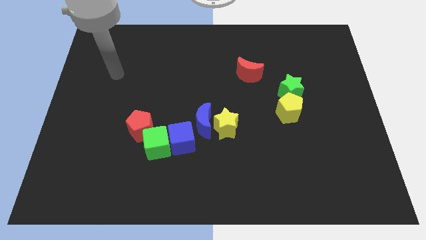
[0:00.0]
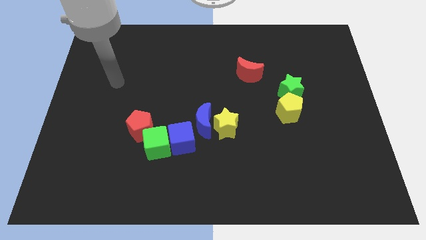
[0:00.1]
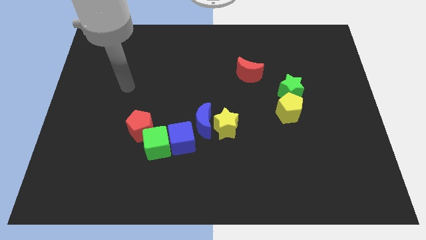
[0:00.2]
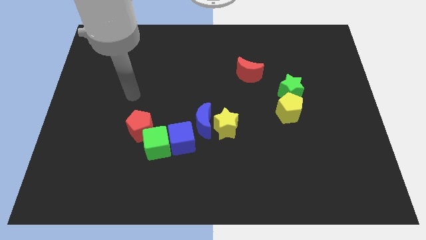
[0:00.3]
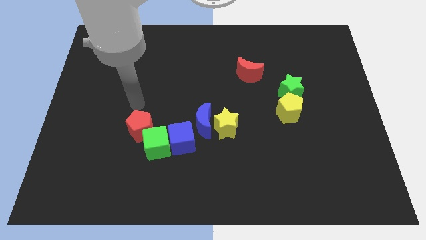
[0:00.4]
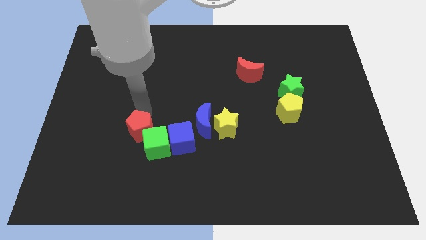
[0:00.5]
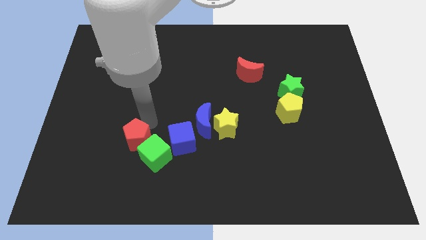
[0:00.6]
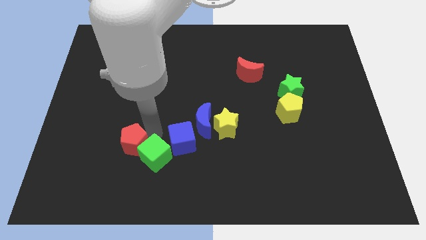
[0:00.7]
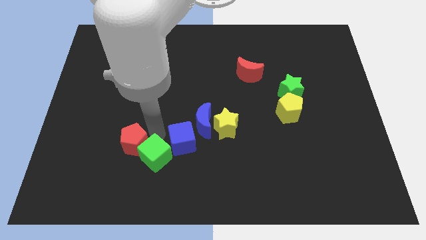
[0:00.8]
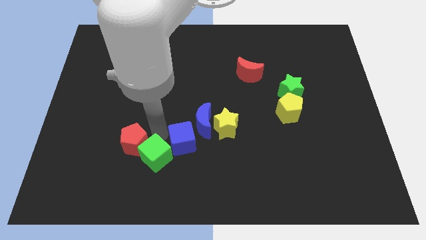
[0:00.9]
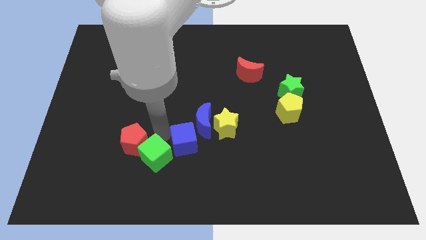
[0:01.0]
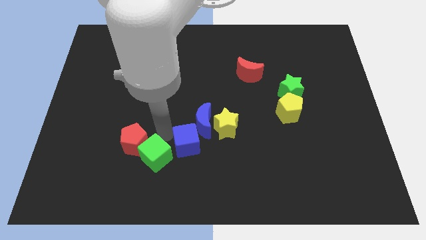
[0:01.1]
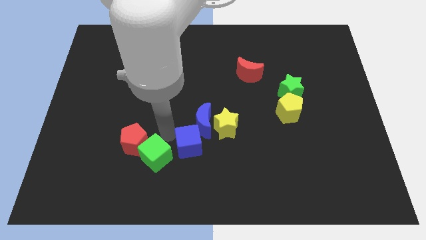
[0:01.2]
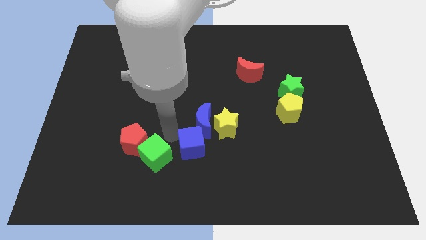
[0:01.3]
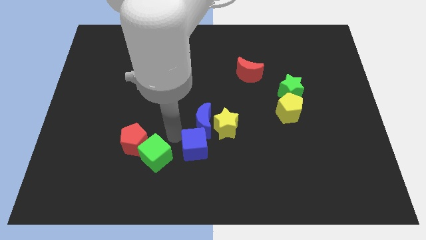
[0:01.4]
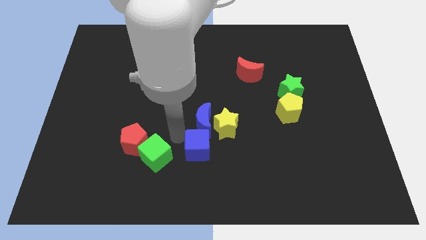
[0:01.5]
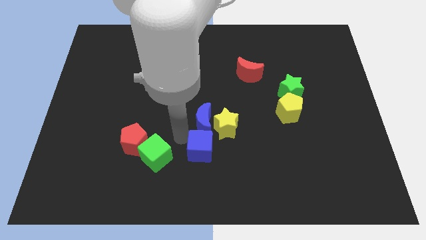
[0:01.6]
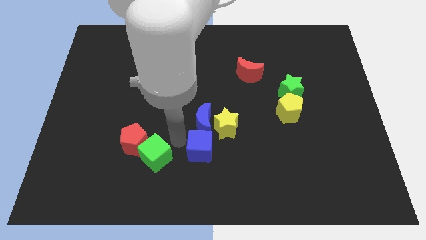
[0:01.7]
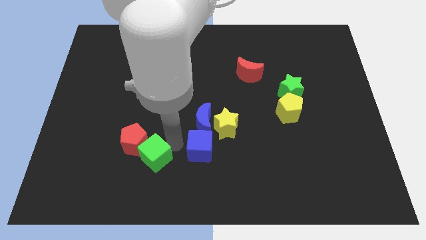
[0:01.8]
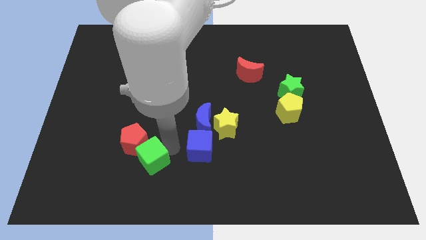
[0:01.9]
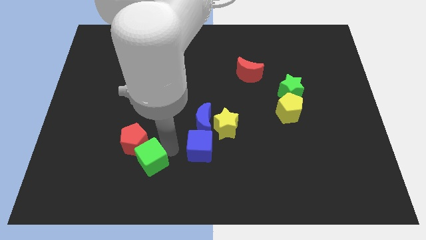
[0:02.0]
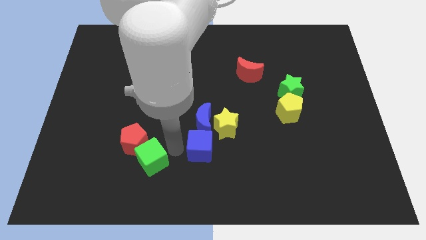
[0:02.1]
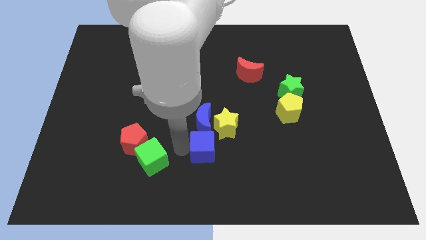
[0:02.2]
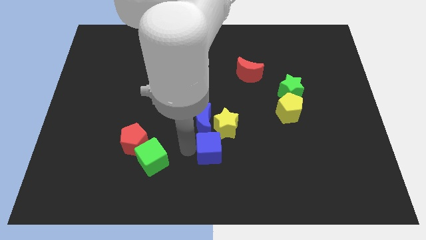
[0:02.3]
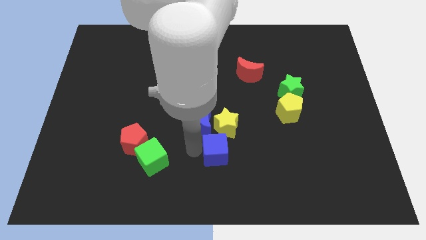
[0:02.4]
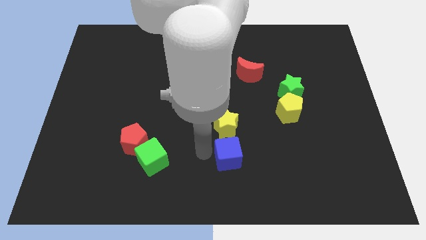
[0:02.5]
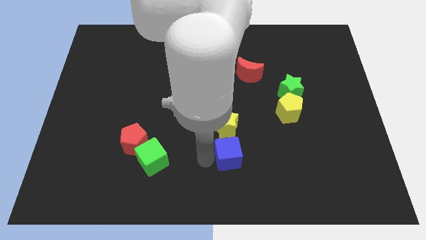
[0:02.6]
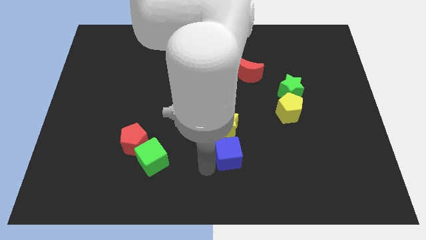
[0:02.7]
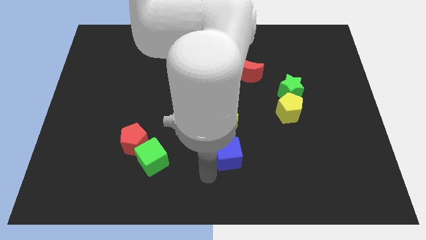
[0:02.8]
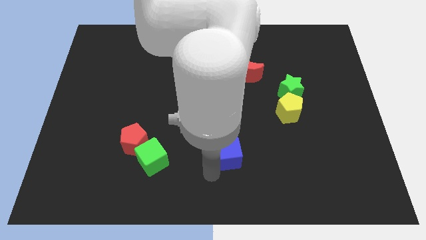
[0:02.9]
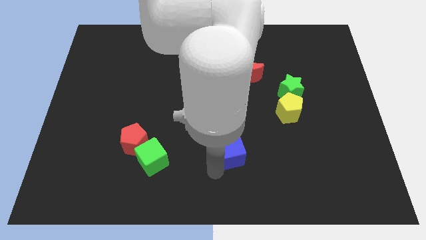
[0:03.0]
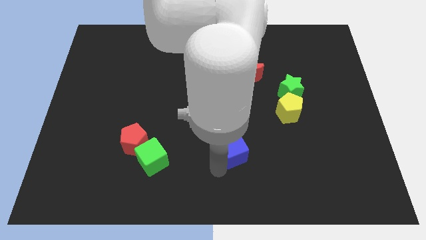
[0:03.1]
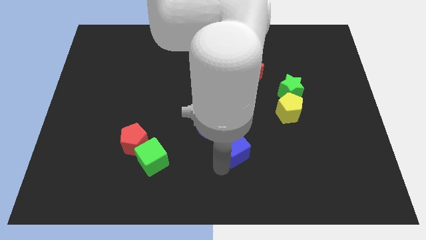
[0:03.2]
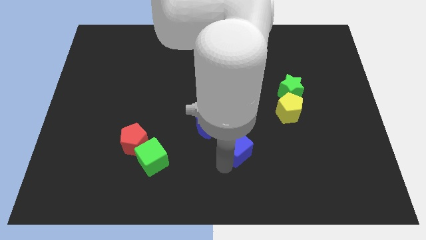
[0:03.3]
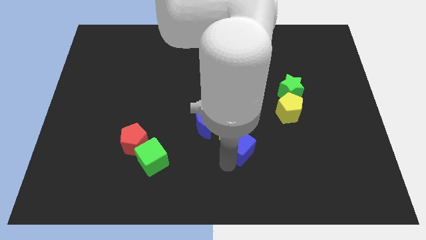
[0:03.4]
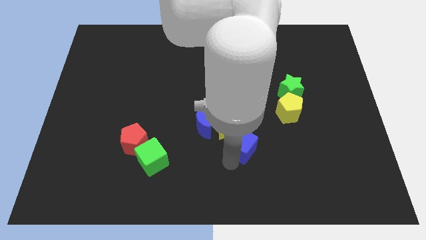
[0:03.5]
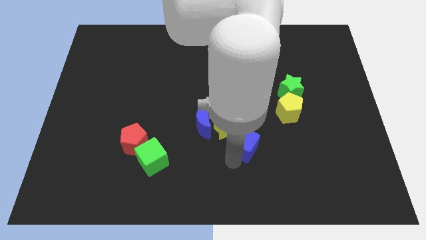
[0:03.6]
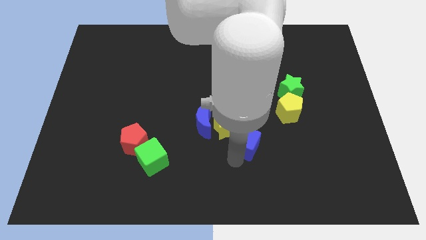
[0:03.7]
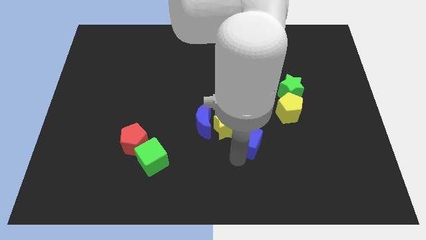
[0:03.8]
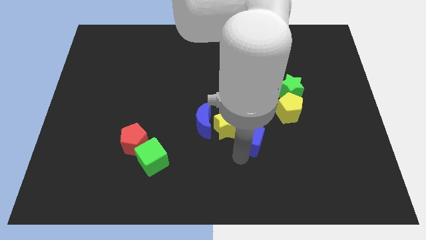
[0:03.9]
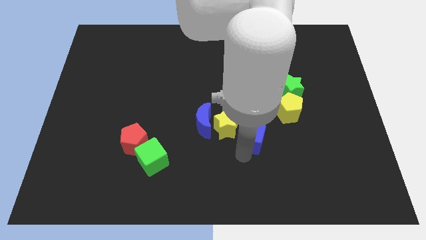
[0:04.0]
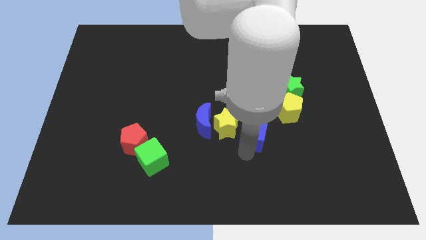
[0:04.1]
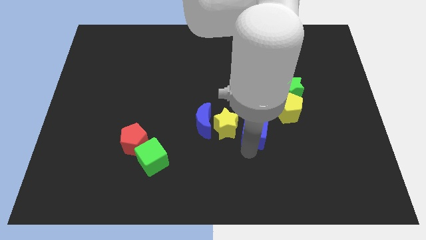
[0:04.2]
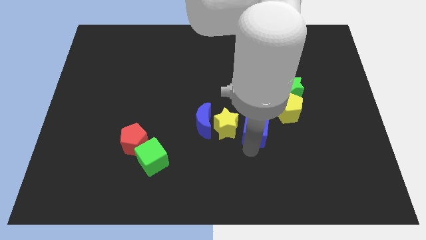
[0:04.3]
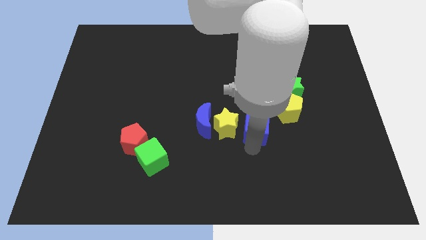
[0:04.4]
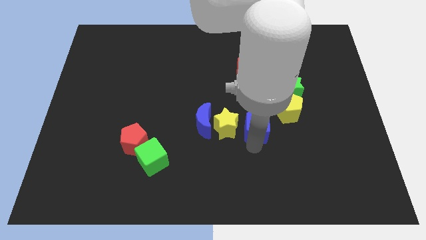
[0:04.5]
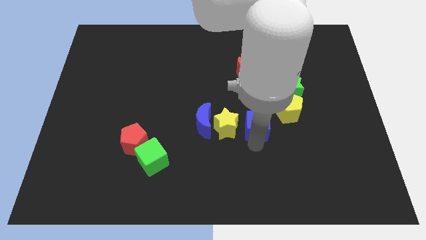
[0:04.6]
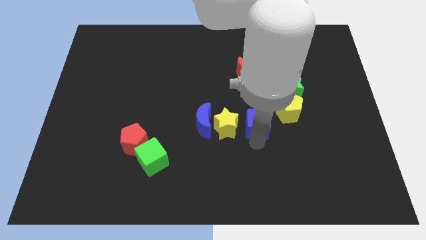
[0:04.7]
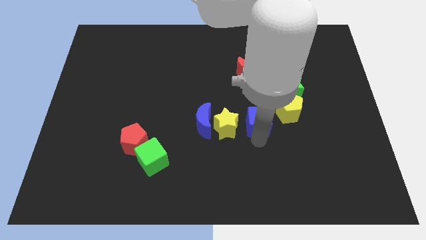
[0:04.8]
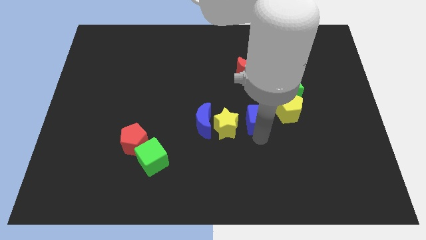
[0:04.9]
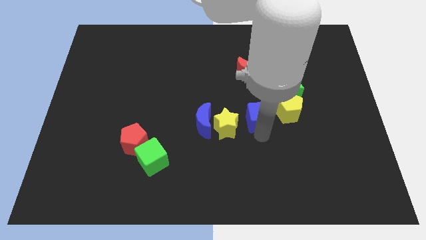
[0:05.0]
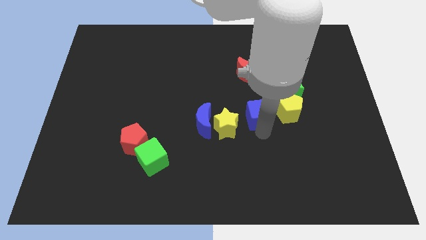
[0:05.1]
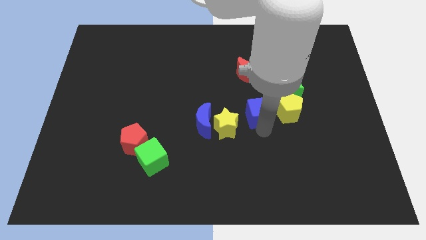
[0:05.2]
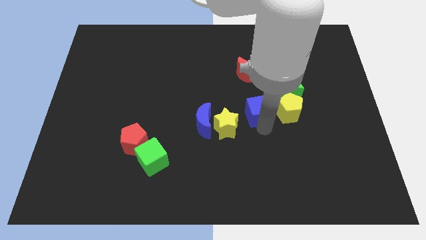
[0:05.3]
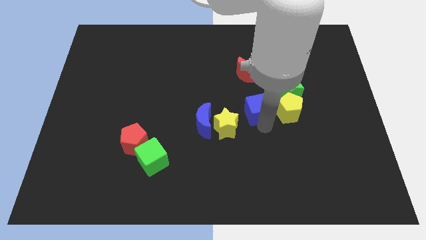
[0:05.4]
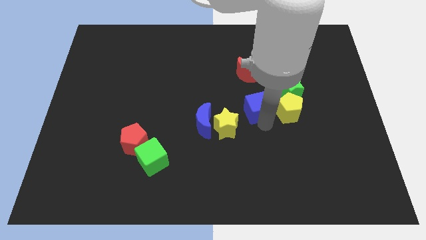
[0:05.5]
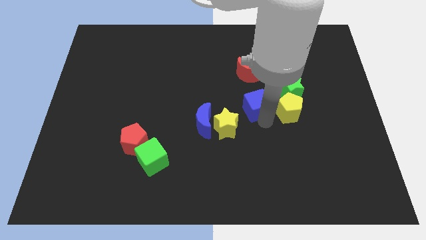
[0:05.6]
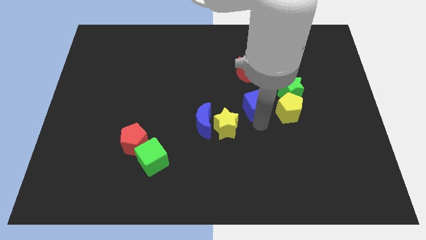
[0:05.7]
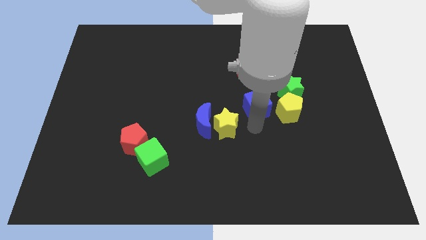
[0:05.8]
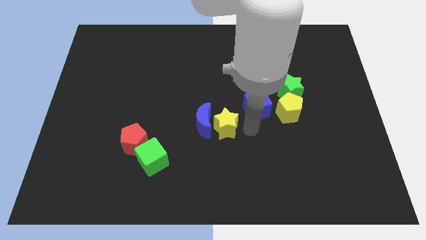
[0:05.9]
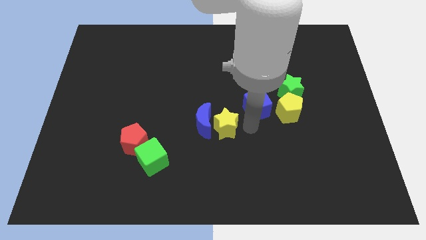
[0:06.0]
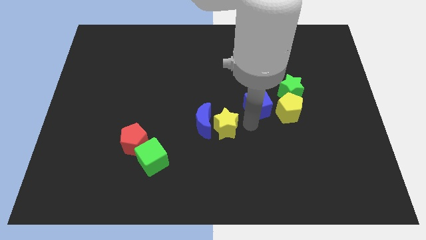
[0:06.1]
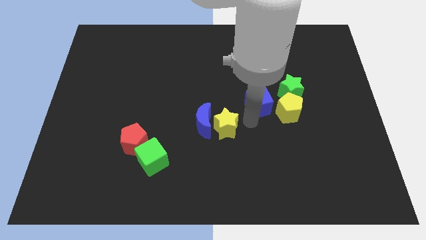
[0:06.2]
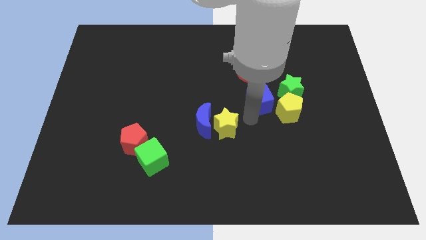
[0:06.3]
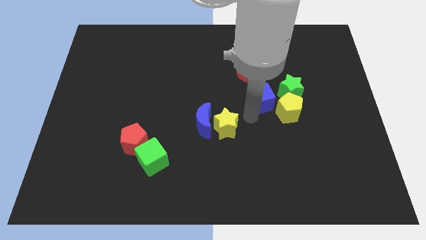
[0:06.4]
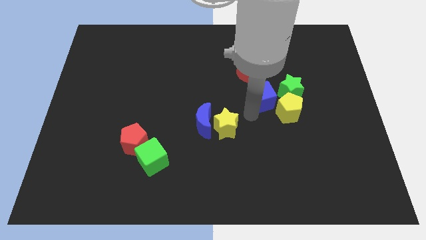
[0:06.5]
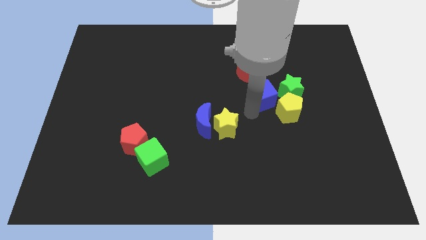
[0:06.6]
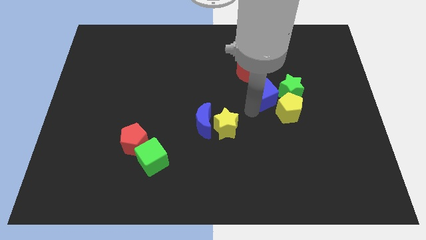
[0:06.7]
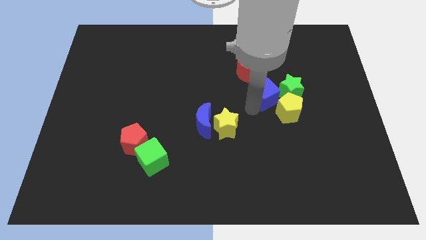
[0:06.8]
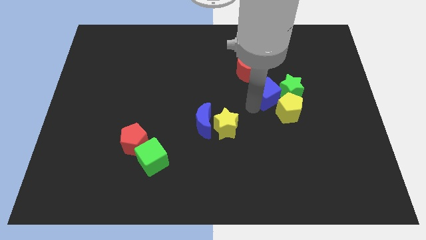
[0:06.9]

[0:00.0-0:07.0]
put the blue cube above the yellow pentagon
